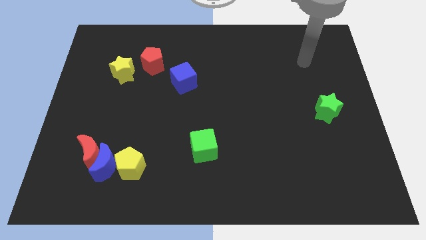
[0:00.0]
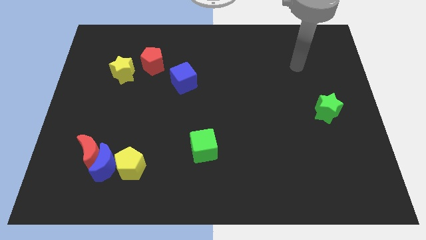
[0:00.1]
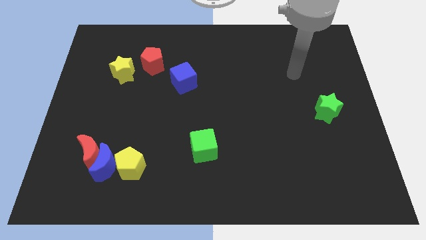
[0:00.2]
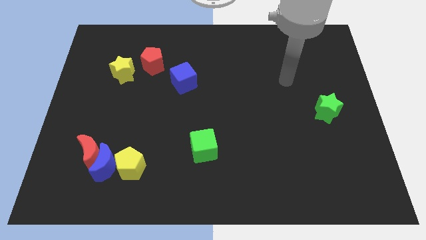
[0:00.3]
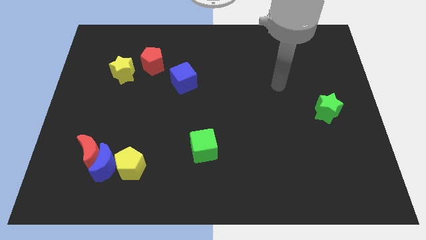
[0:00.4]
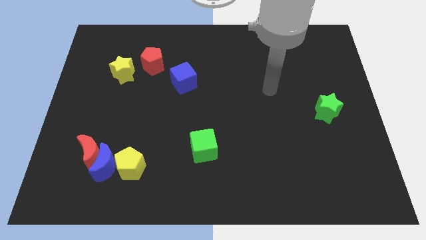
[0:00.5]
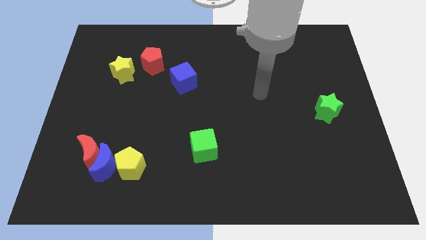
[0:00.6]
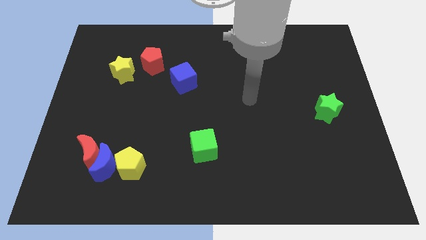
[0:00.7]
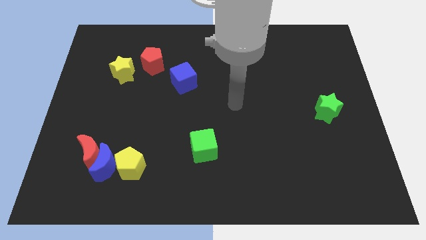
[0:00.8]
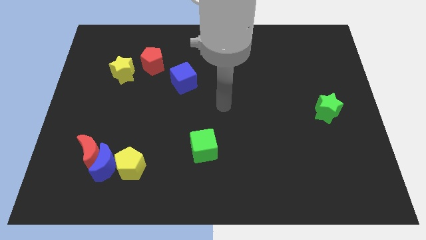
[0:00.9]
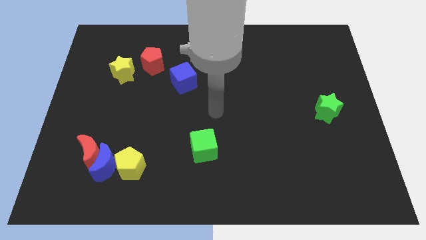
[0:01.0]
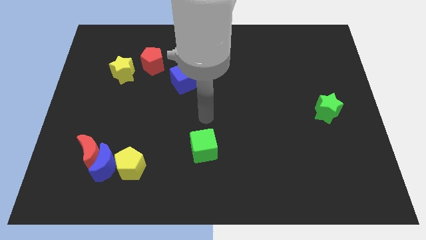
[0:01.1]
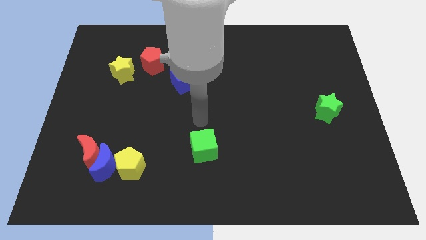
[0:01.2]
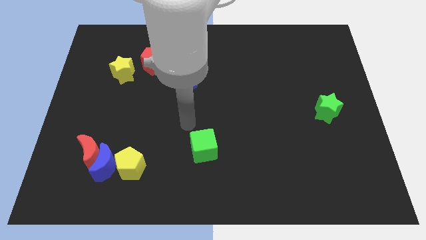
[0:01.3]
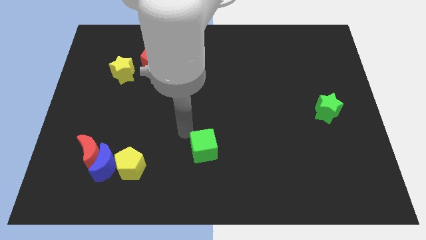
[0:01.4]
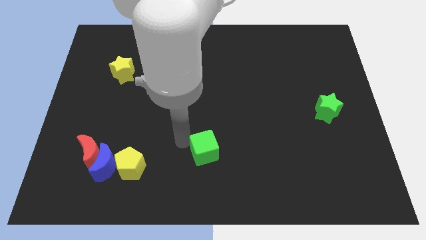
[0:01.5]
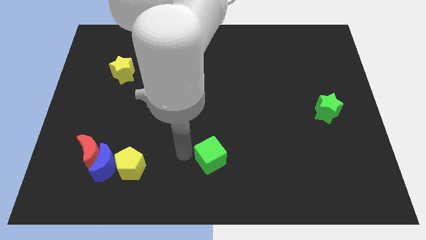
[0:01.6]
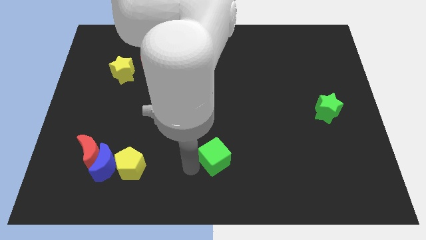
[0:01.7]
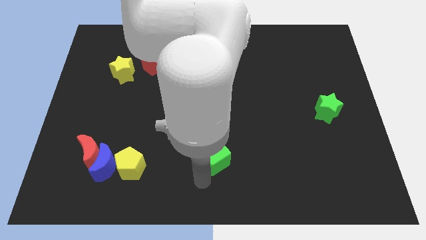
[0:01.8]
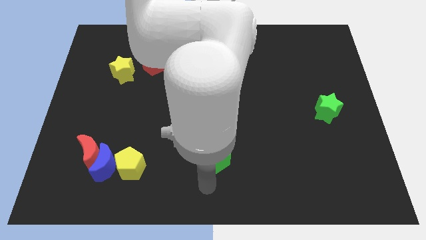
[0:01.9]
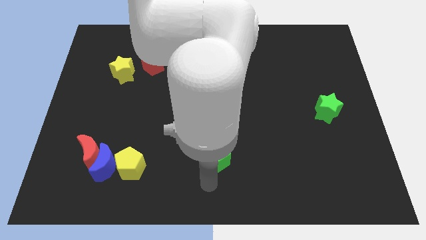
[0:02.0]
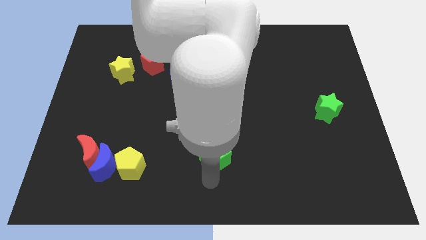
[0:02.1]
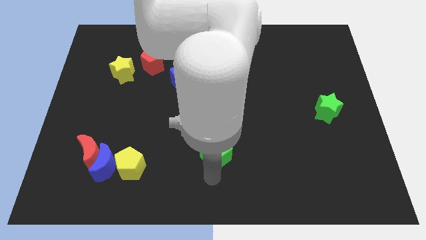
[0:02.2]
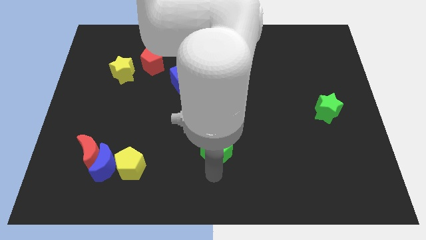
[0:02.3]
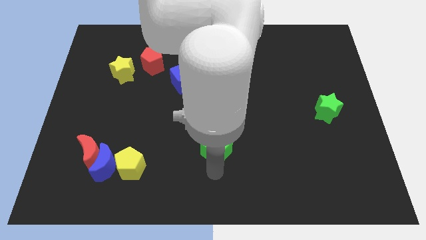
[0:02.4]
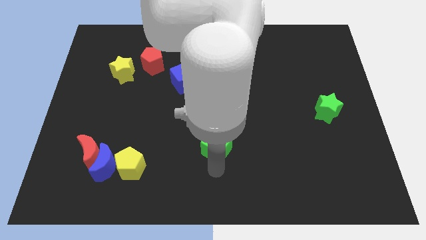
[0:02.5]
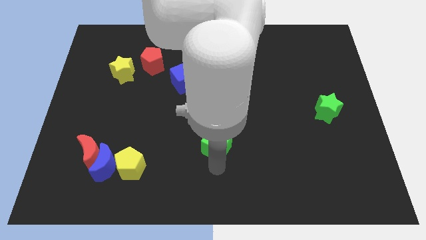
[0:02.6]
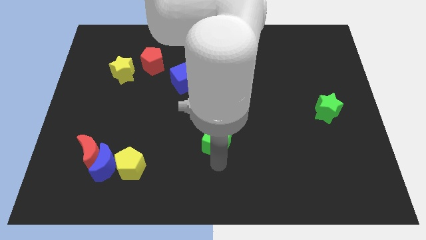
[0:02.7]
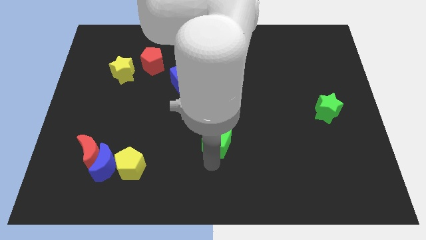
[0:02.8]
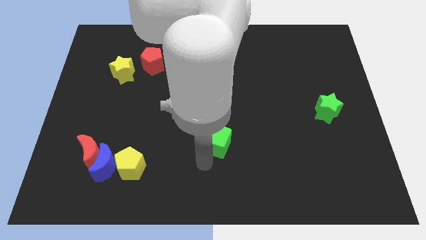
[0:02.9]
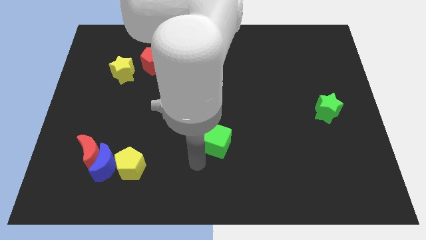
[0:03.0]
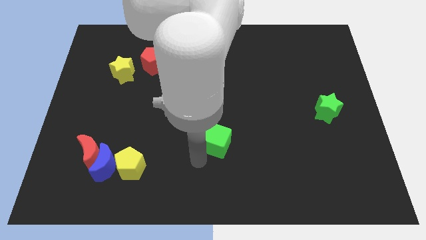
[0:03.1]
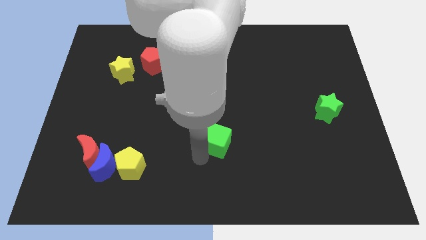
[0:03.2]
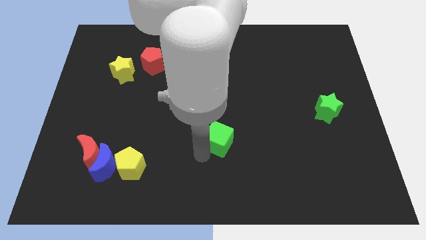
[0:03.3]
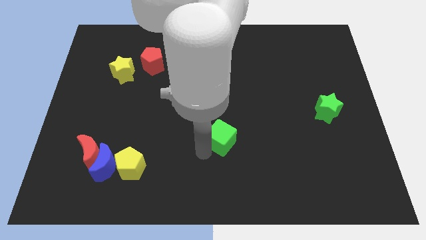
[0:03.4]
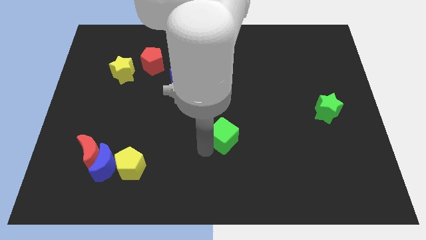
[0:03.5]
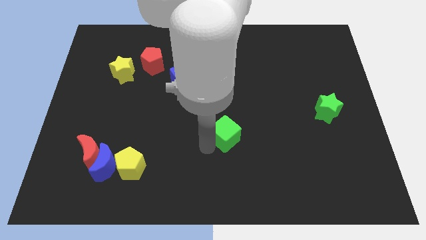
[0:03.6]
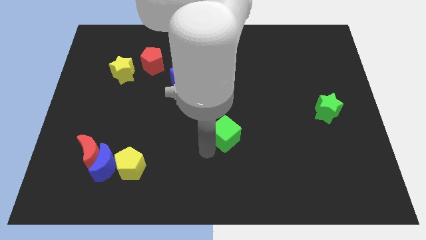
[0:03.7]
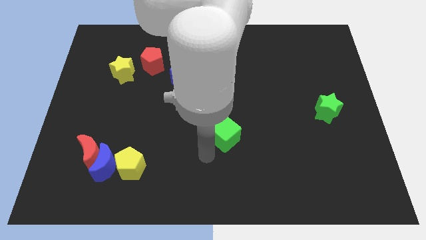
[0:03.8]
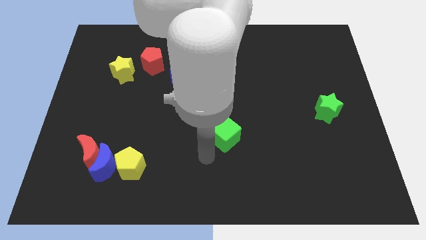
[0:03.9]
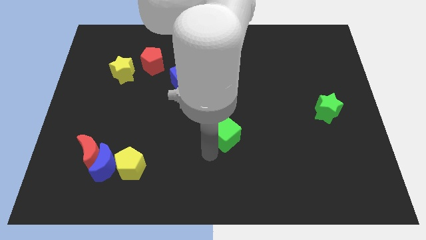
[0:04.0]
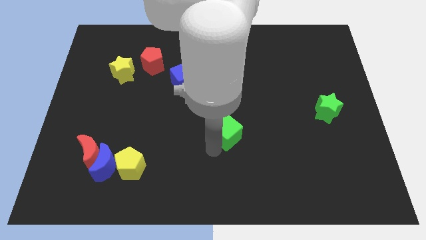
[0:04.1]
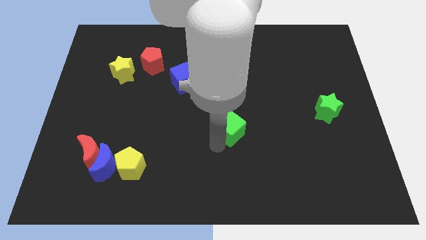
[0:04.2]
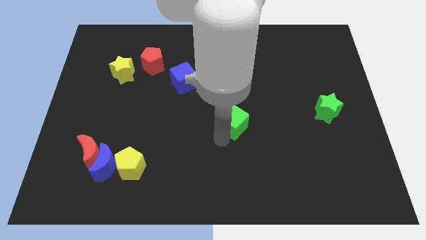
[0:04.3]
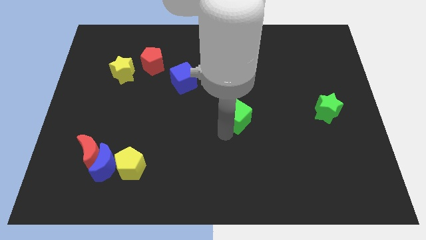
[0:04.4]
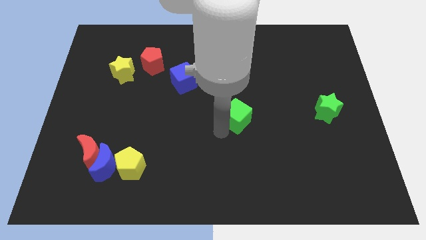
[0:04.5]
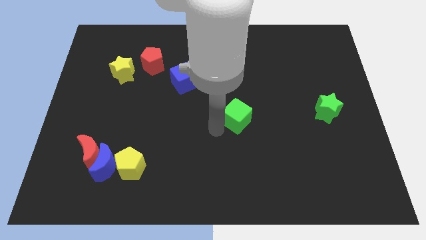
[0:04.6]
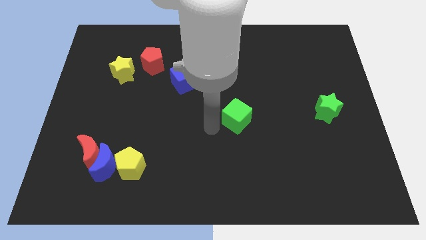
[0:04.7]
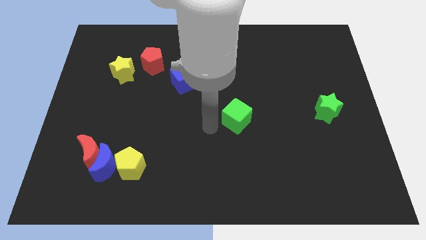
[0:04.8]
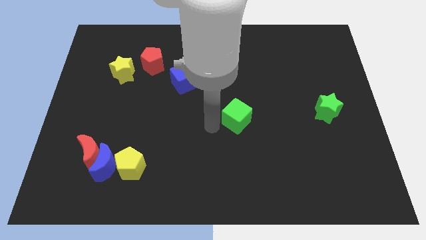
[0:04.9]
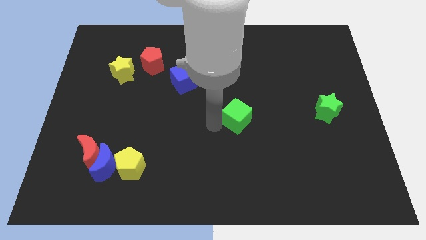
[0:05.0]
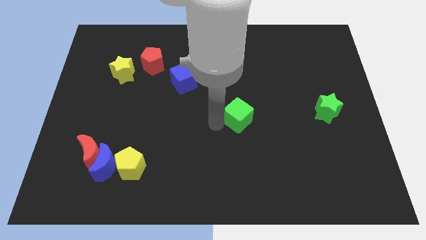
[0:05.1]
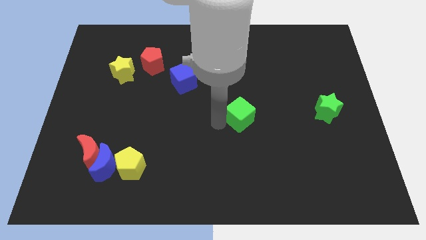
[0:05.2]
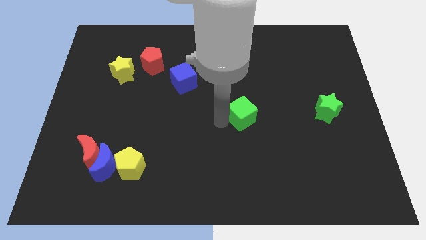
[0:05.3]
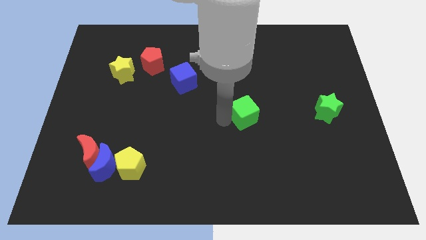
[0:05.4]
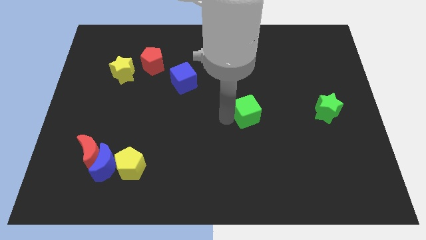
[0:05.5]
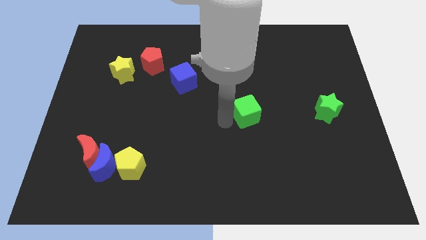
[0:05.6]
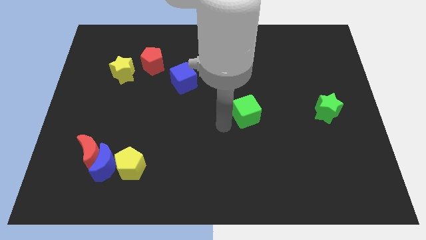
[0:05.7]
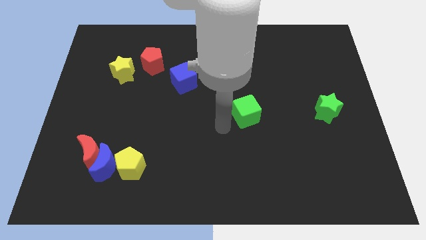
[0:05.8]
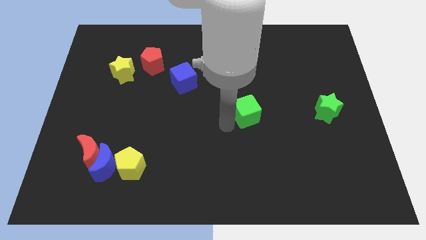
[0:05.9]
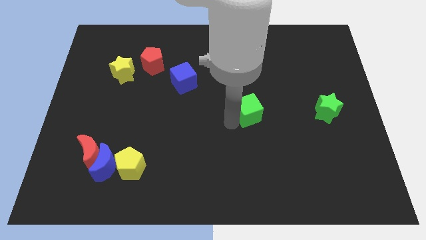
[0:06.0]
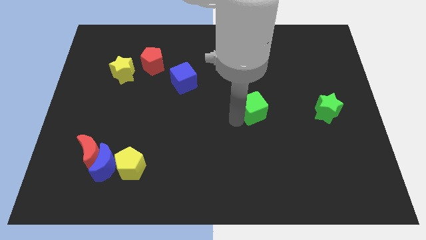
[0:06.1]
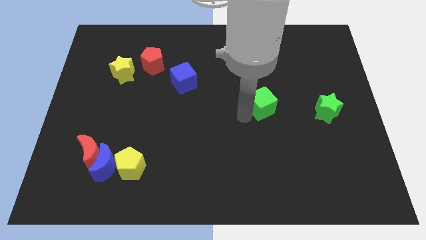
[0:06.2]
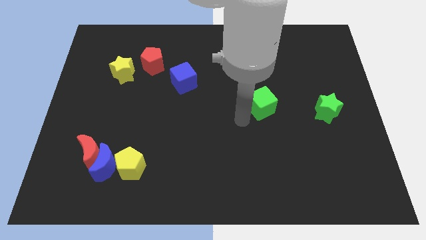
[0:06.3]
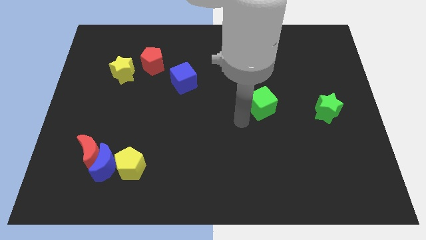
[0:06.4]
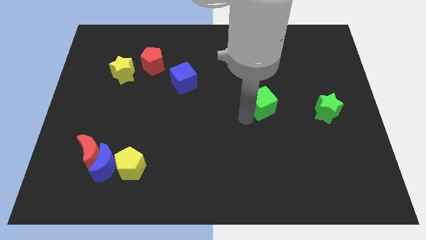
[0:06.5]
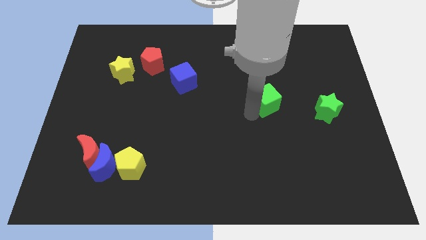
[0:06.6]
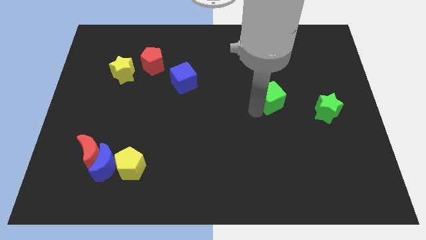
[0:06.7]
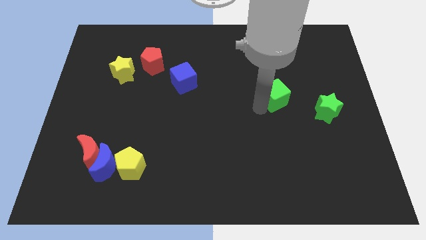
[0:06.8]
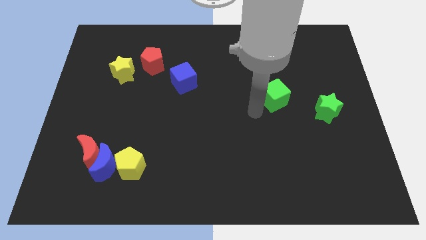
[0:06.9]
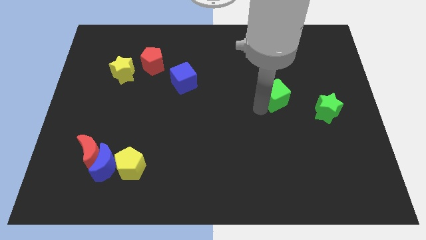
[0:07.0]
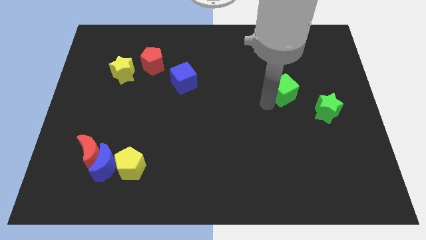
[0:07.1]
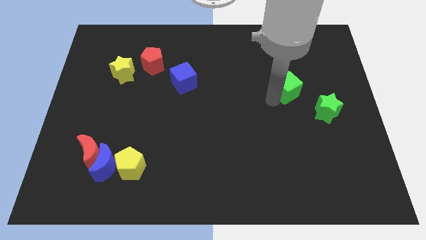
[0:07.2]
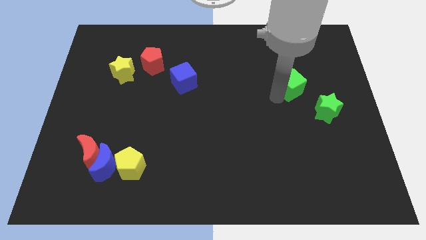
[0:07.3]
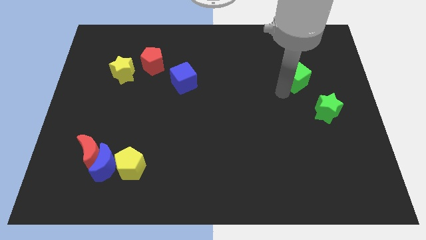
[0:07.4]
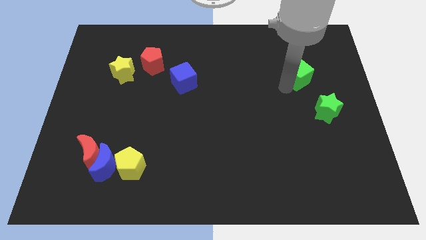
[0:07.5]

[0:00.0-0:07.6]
slide the green cube above the green star
